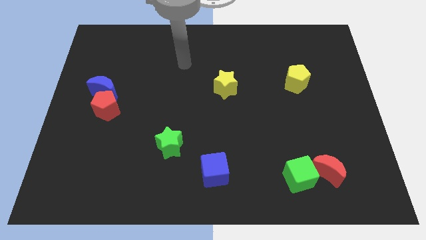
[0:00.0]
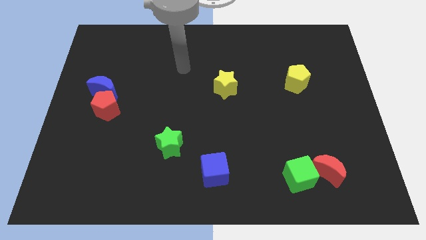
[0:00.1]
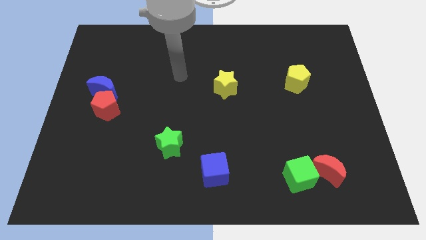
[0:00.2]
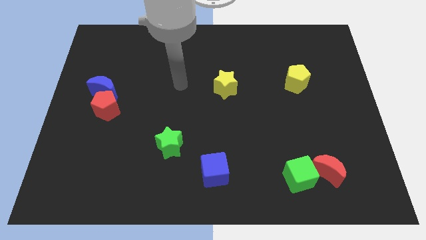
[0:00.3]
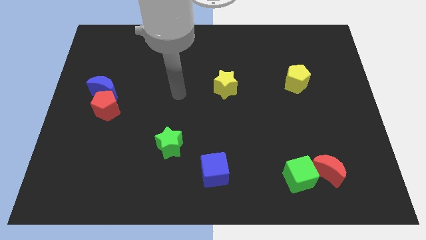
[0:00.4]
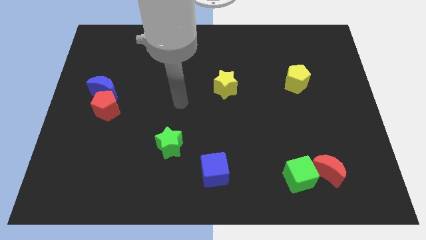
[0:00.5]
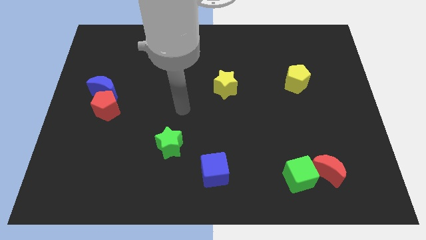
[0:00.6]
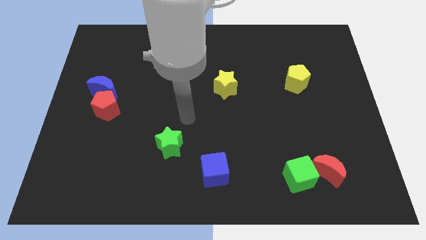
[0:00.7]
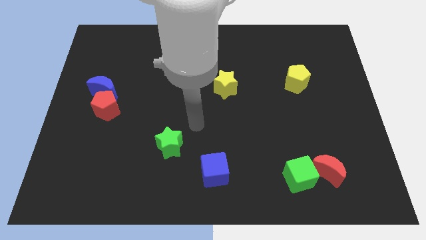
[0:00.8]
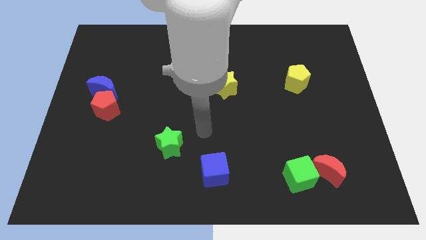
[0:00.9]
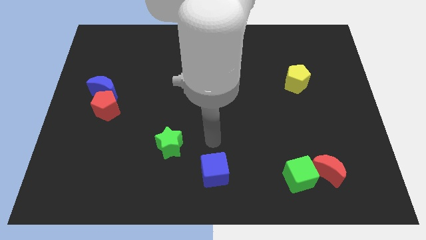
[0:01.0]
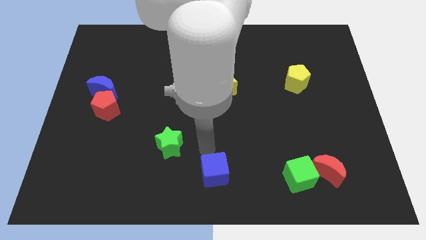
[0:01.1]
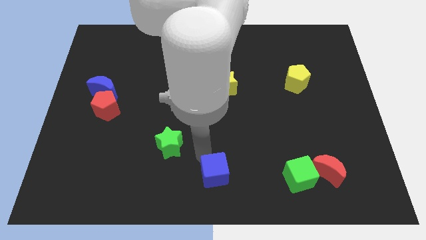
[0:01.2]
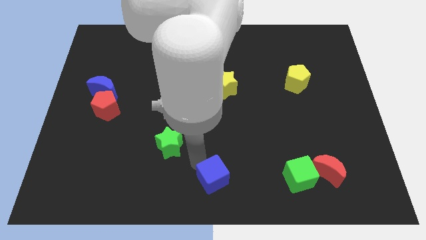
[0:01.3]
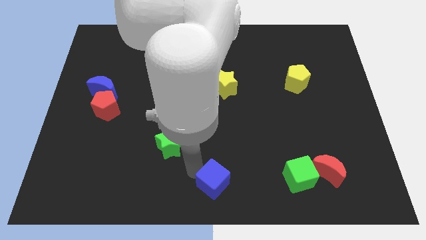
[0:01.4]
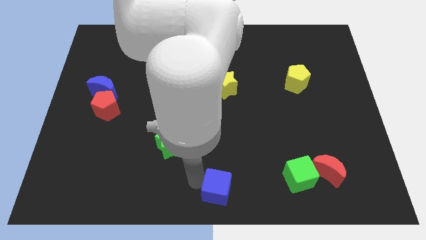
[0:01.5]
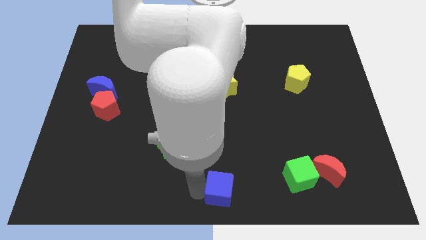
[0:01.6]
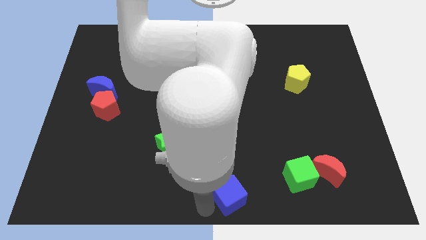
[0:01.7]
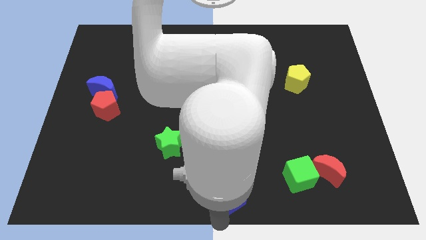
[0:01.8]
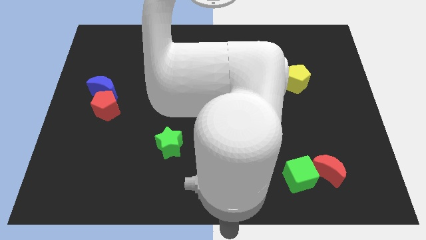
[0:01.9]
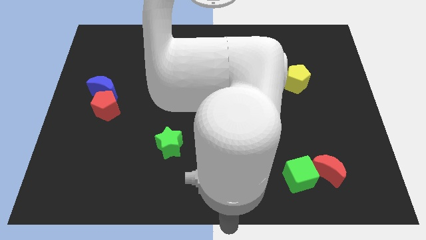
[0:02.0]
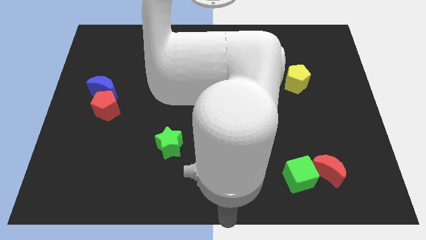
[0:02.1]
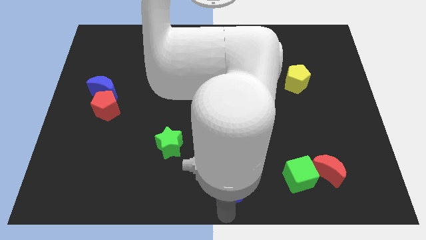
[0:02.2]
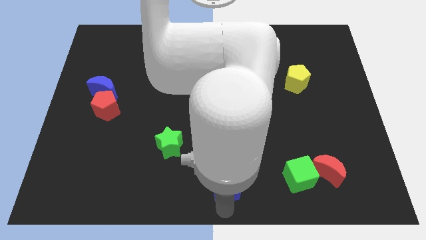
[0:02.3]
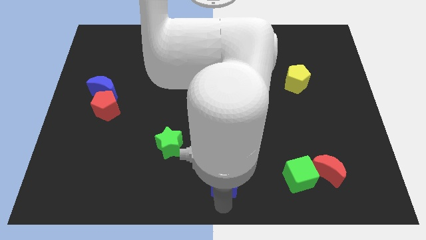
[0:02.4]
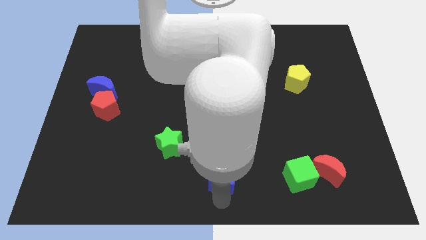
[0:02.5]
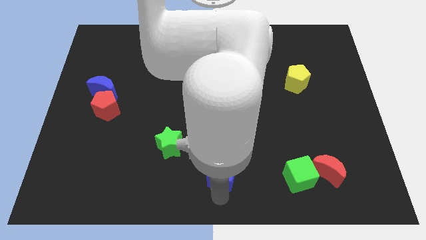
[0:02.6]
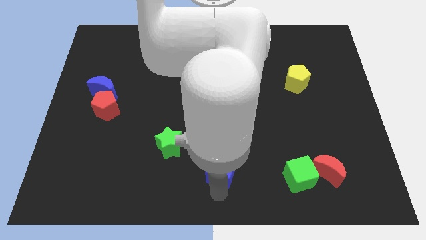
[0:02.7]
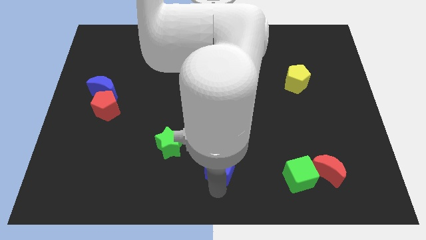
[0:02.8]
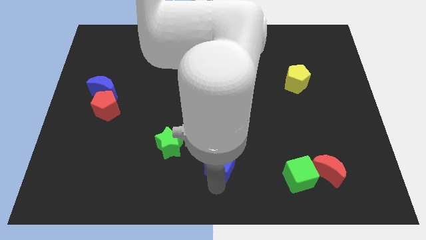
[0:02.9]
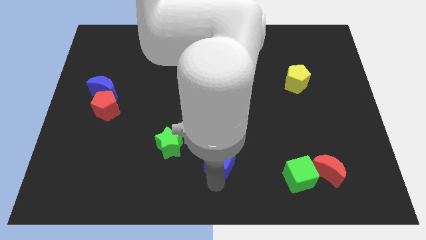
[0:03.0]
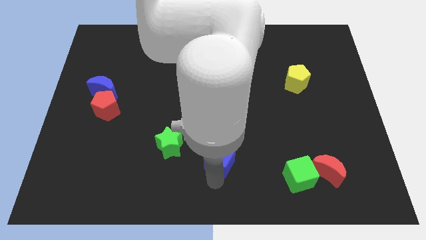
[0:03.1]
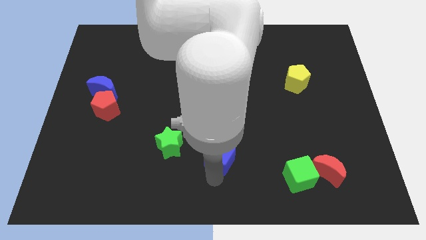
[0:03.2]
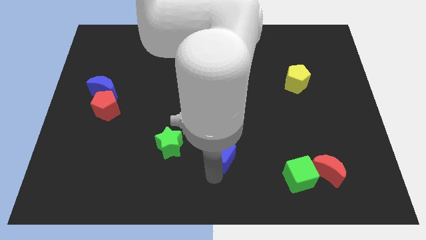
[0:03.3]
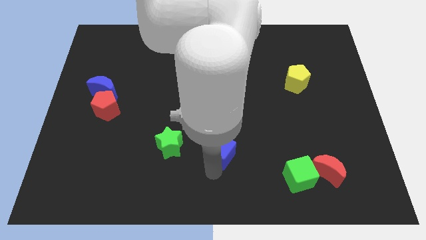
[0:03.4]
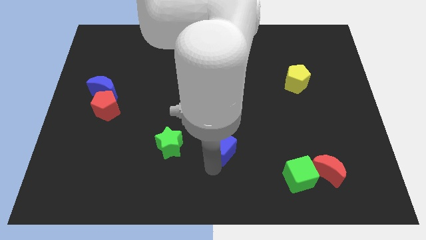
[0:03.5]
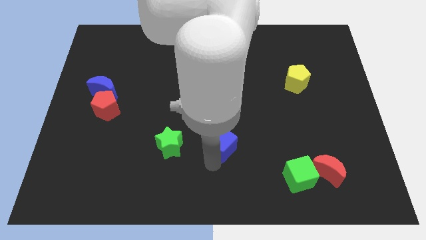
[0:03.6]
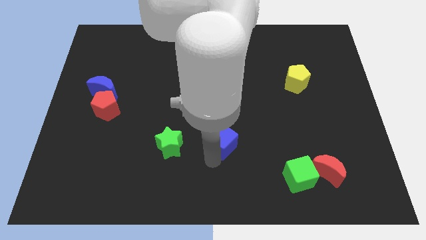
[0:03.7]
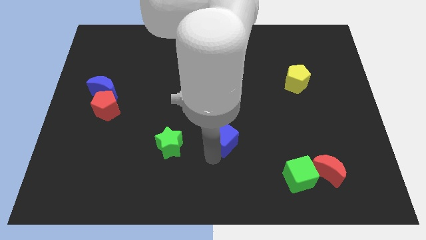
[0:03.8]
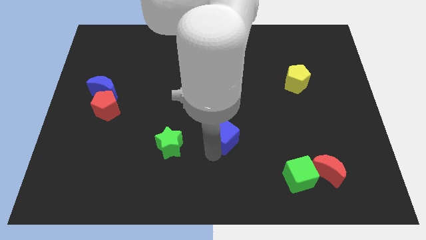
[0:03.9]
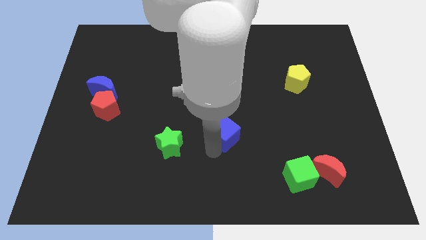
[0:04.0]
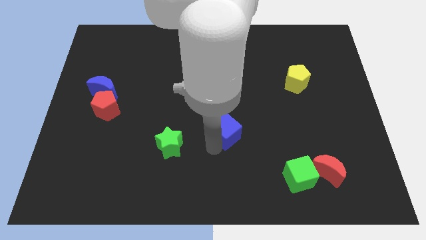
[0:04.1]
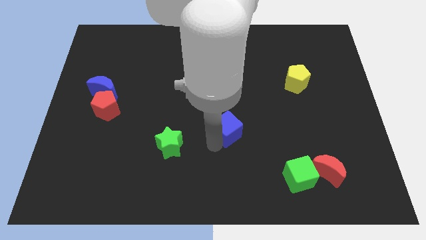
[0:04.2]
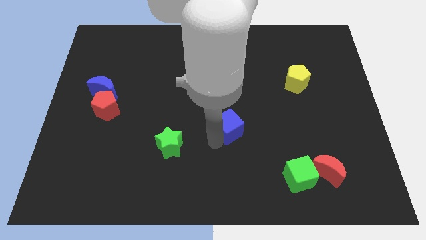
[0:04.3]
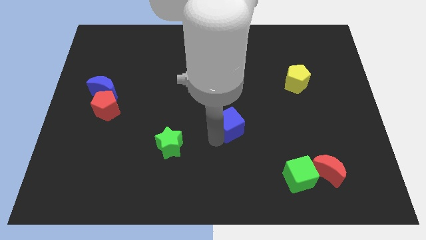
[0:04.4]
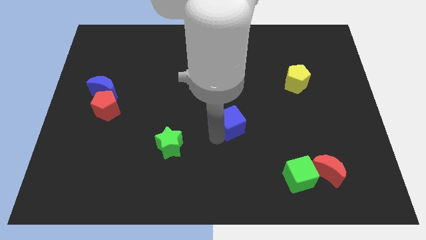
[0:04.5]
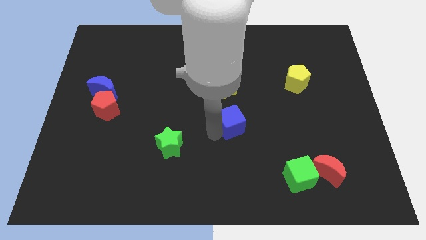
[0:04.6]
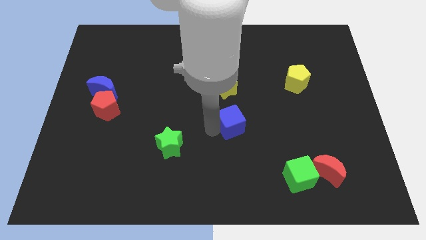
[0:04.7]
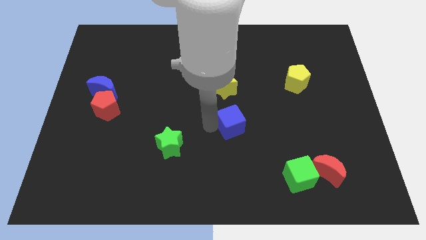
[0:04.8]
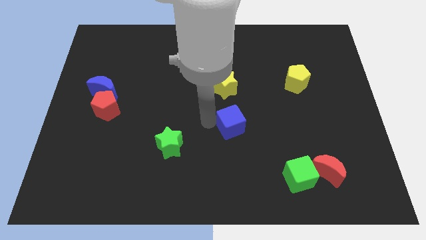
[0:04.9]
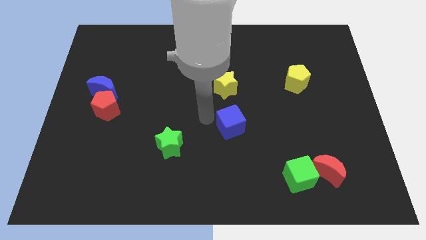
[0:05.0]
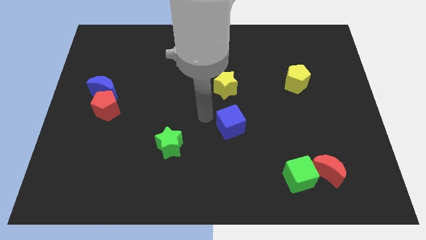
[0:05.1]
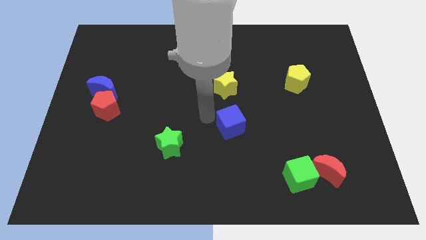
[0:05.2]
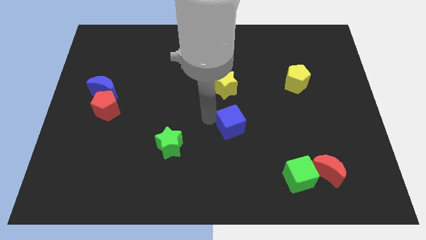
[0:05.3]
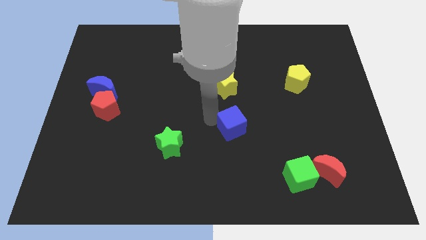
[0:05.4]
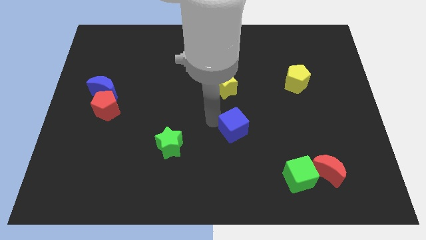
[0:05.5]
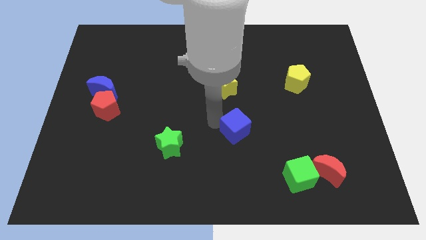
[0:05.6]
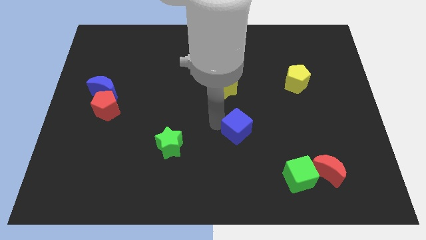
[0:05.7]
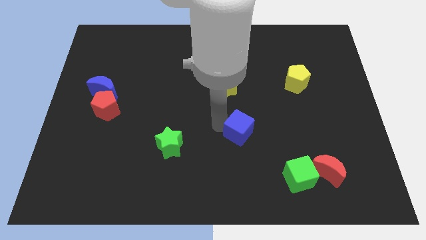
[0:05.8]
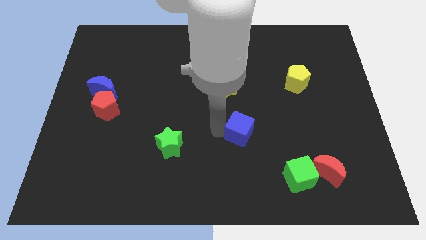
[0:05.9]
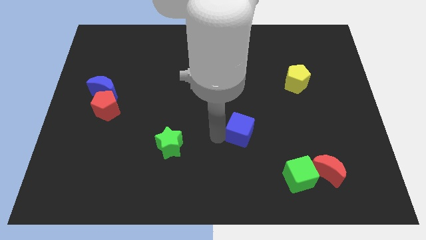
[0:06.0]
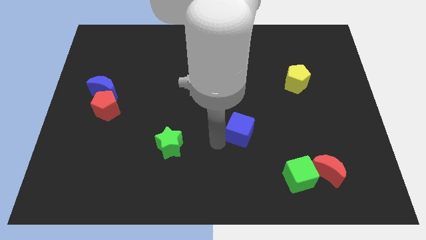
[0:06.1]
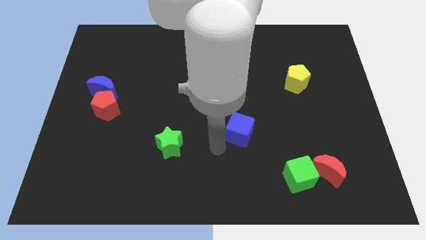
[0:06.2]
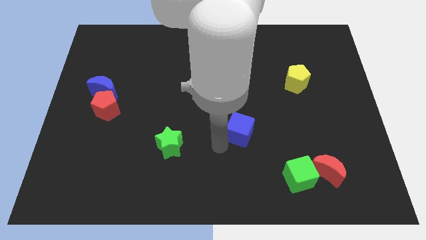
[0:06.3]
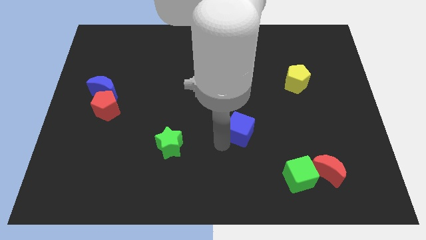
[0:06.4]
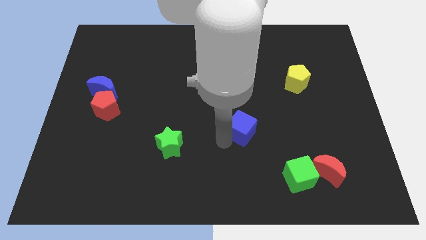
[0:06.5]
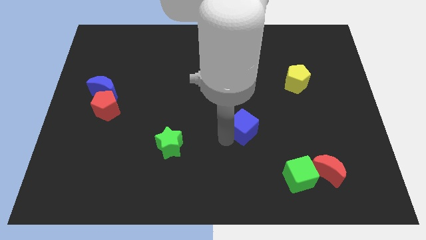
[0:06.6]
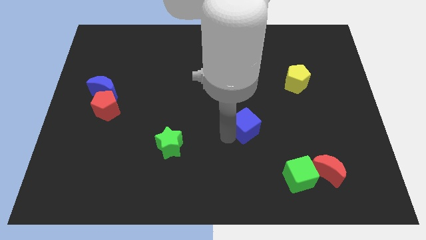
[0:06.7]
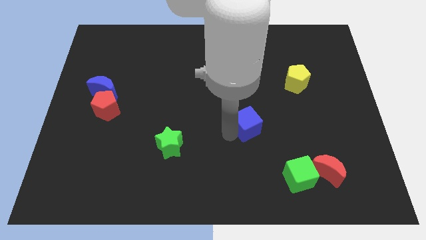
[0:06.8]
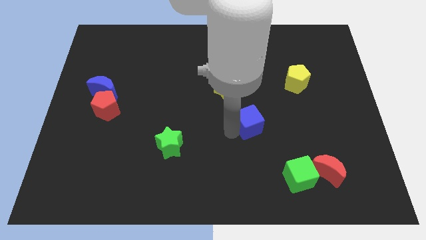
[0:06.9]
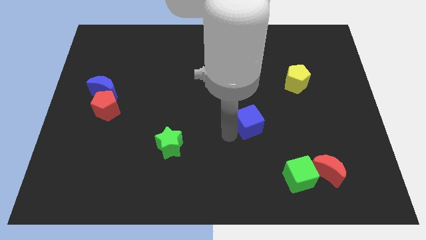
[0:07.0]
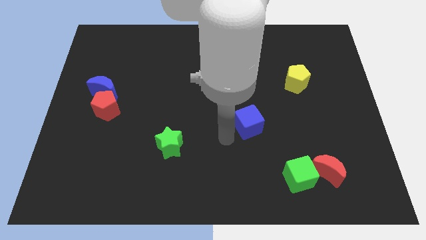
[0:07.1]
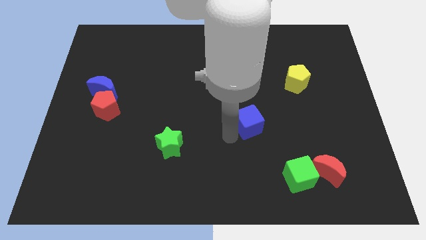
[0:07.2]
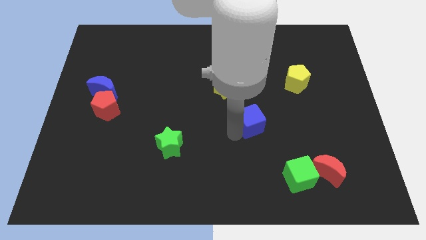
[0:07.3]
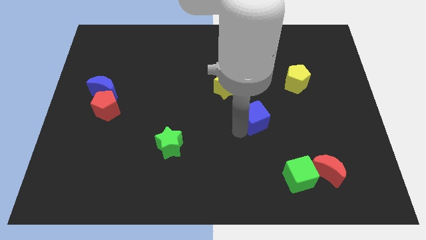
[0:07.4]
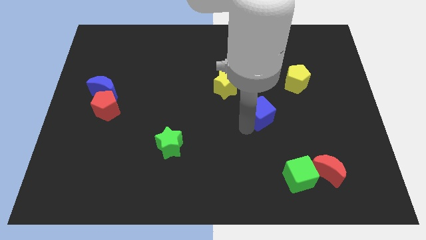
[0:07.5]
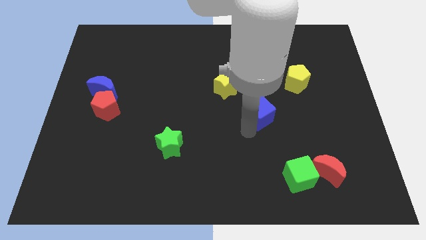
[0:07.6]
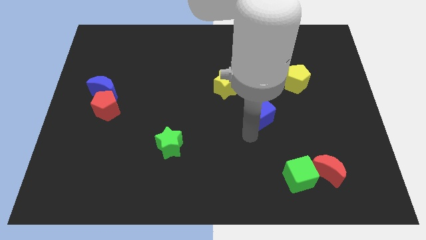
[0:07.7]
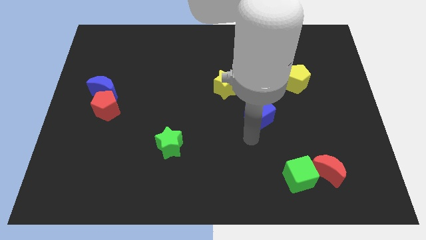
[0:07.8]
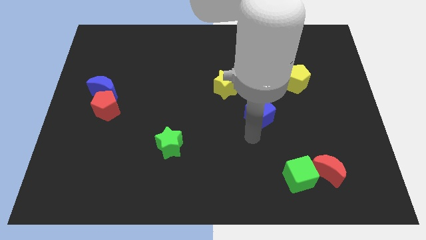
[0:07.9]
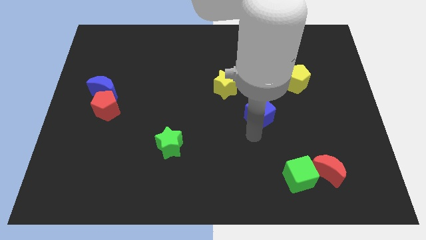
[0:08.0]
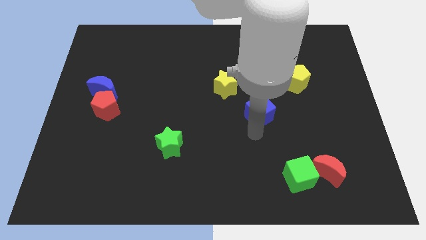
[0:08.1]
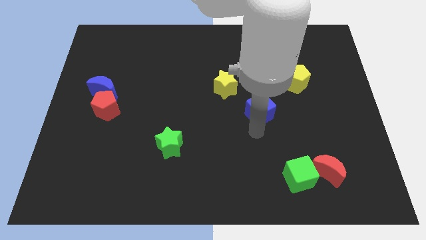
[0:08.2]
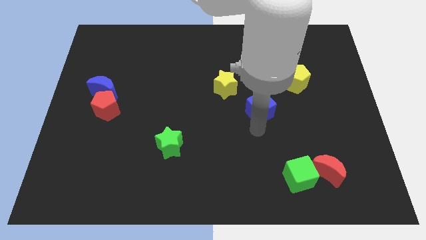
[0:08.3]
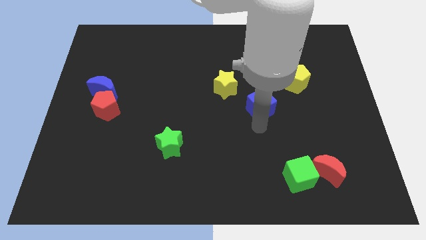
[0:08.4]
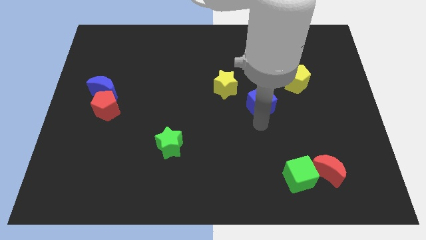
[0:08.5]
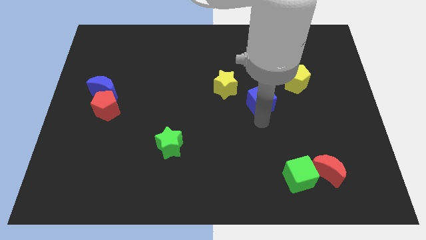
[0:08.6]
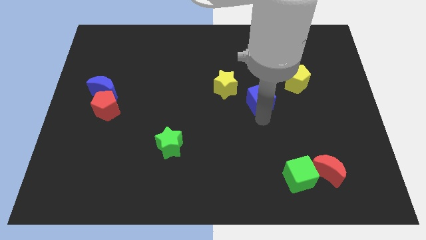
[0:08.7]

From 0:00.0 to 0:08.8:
move the blue cube right of the yellow star
